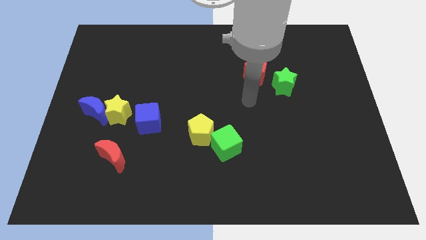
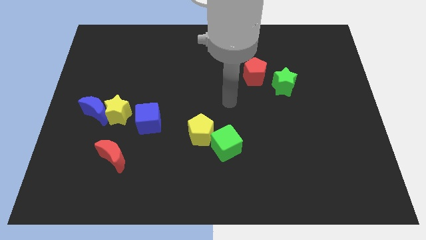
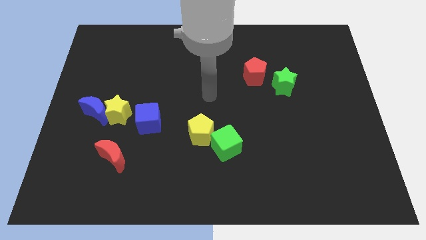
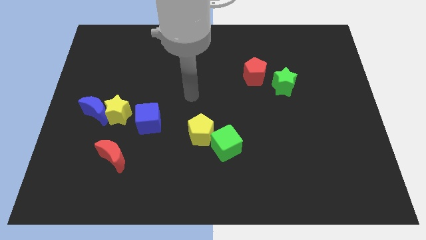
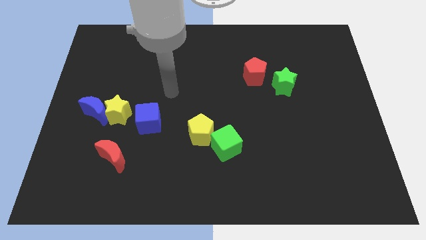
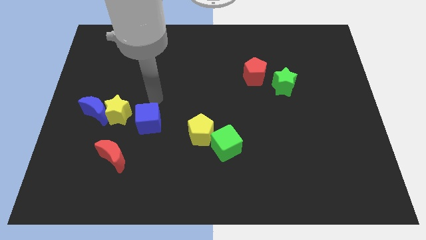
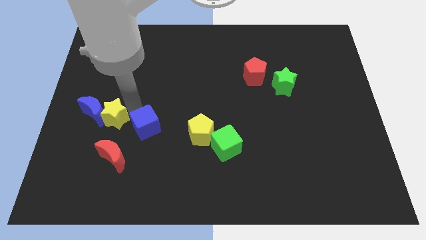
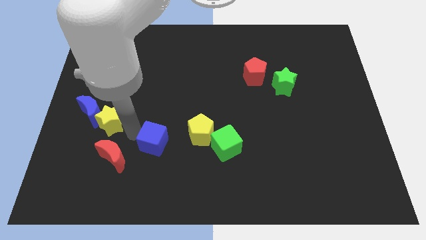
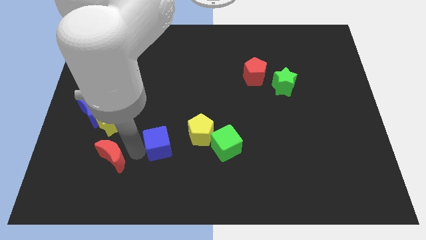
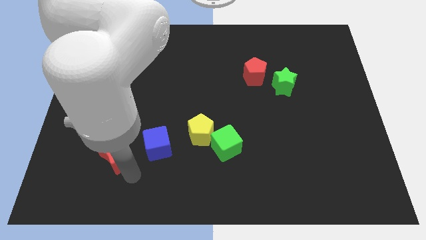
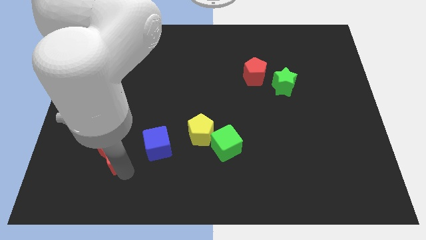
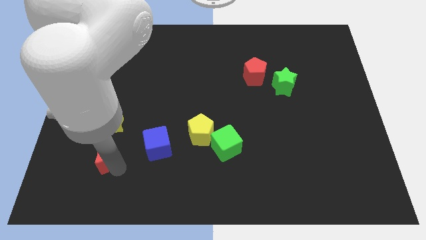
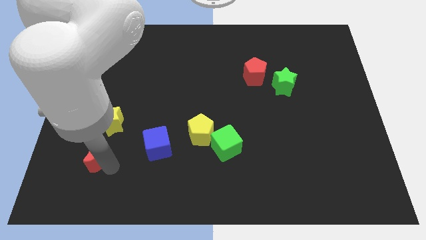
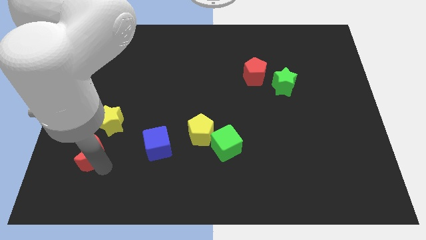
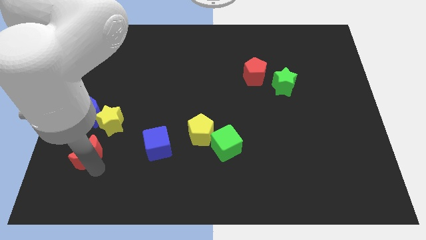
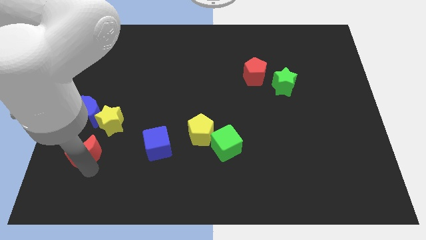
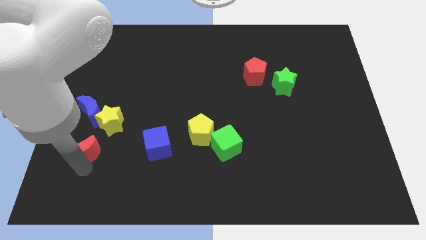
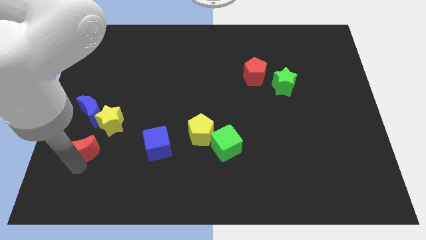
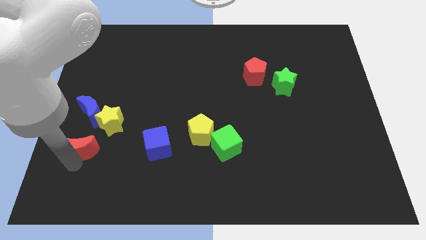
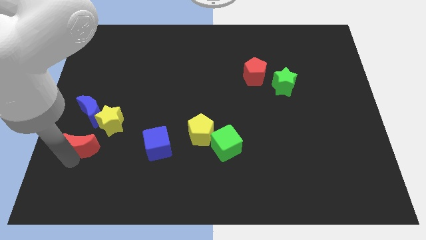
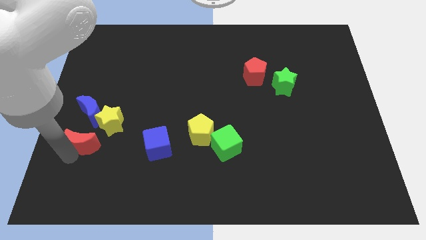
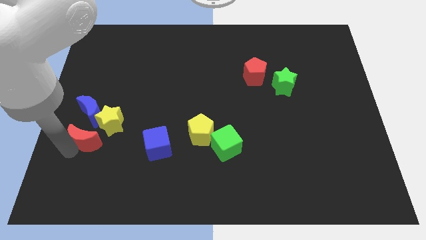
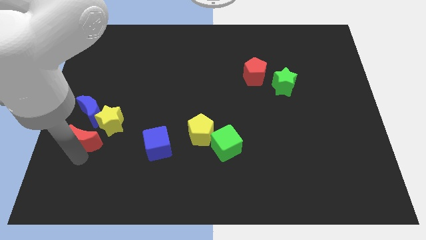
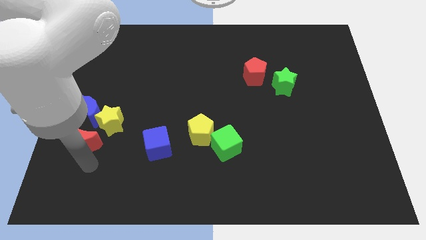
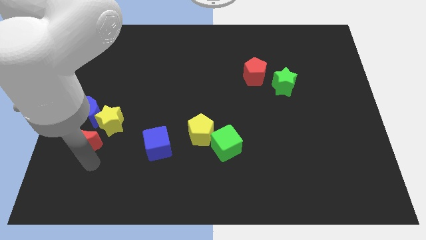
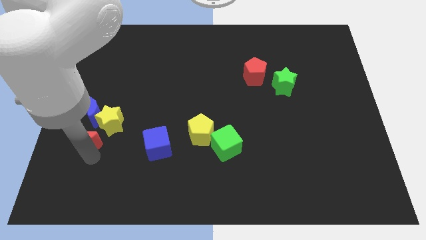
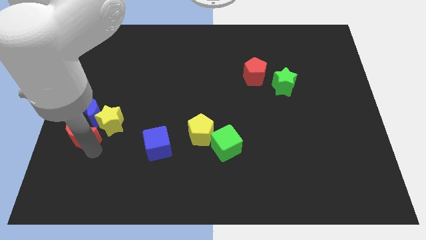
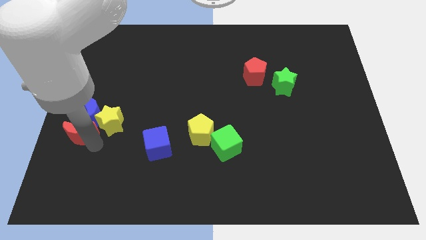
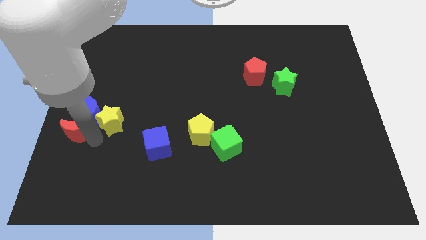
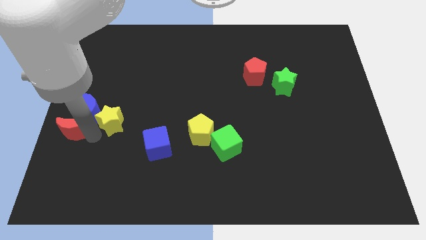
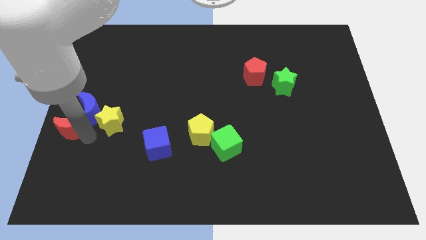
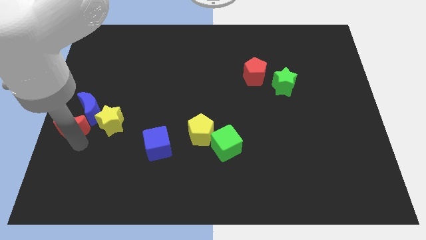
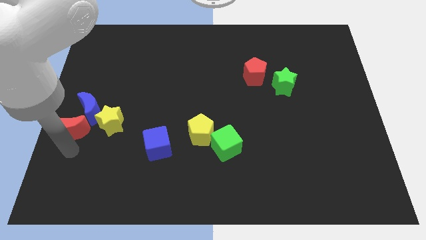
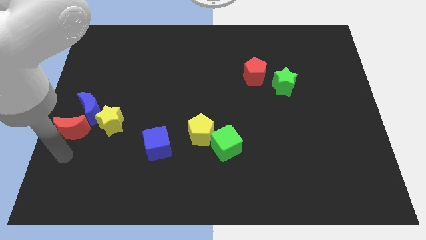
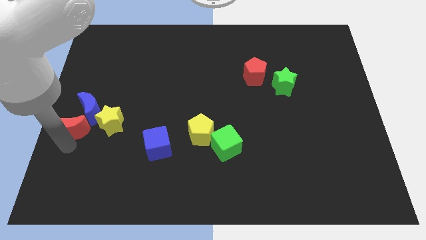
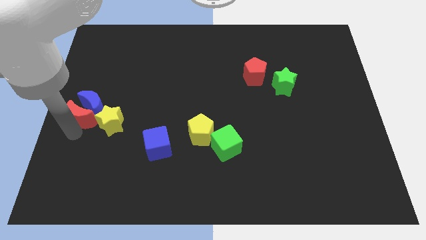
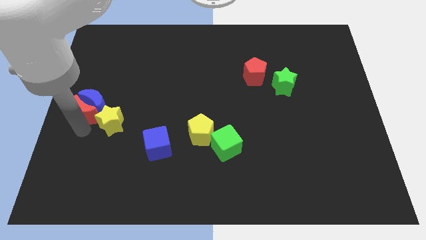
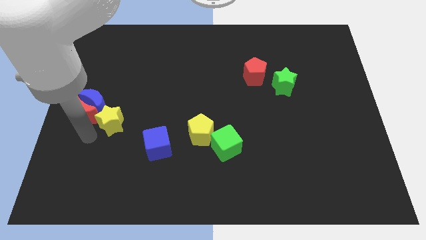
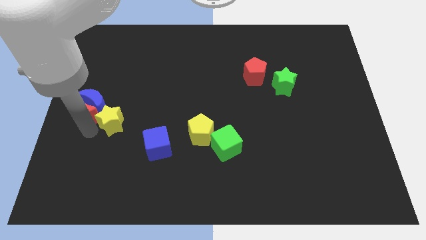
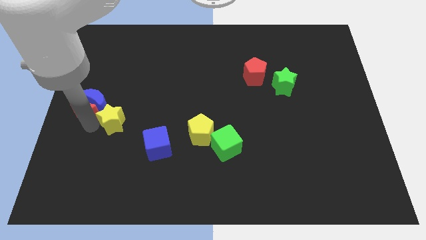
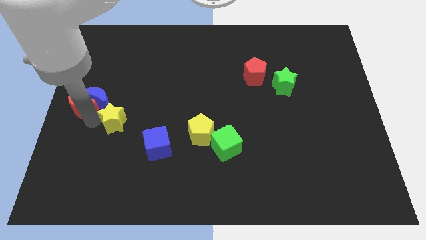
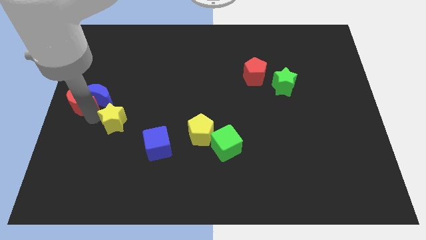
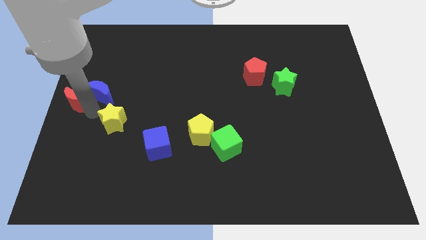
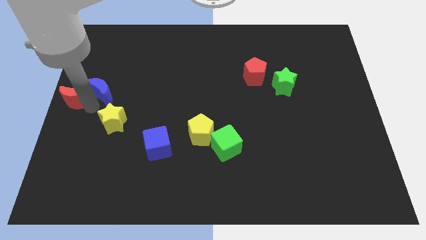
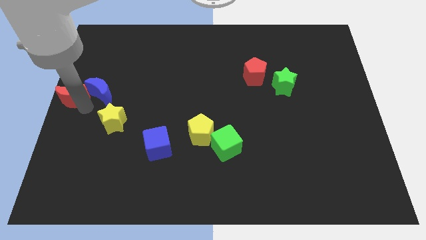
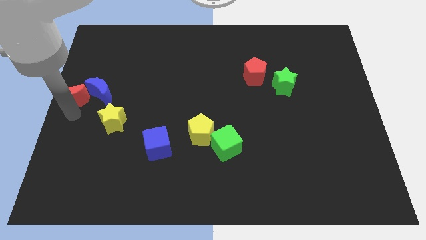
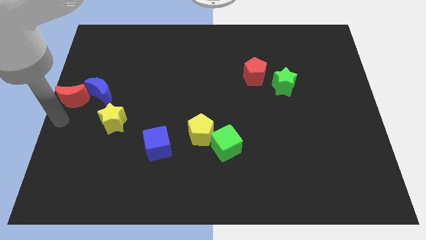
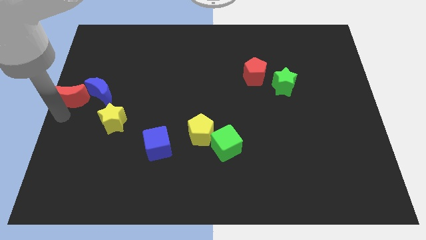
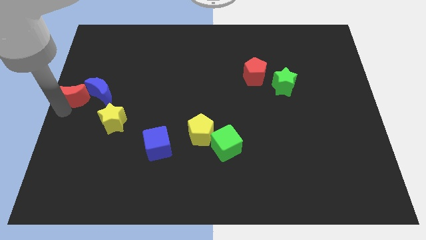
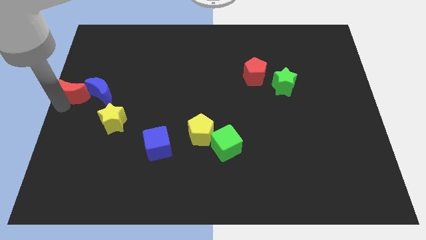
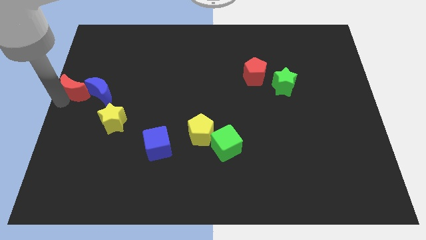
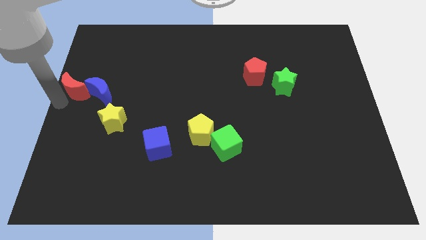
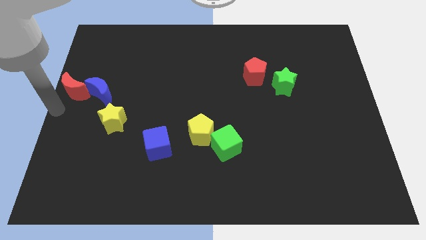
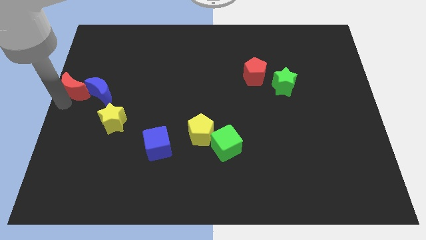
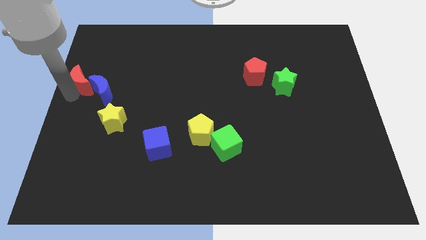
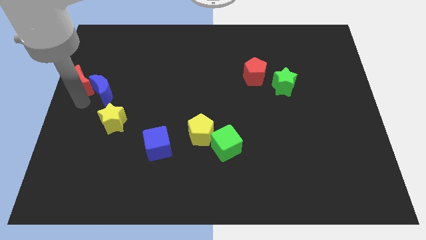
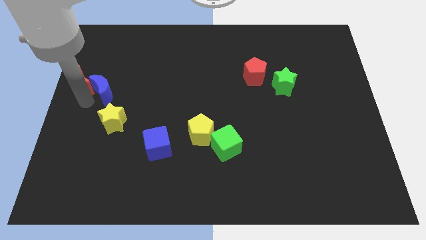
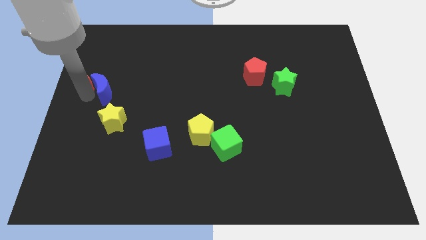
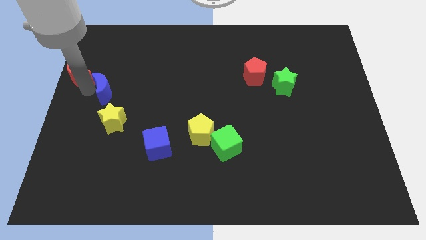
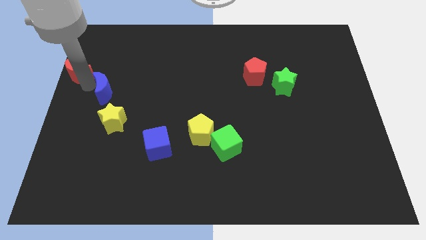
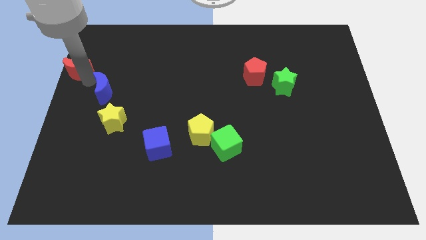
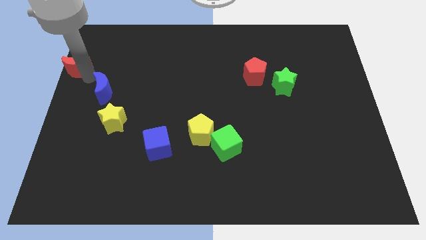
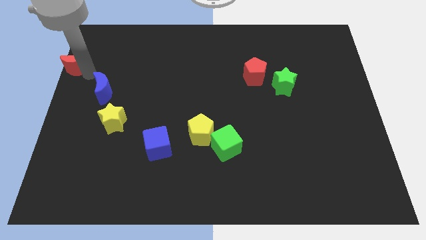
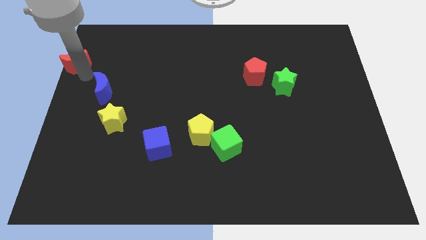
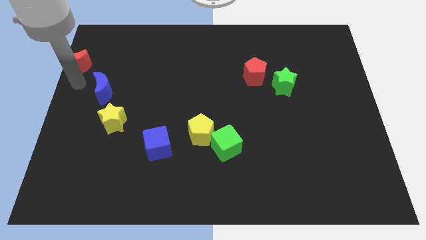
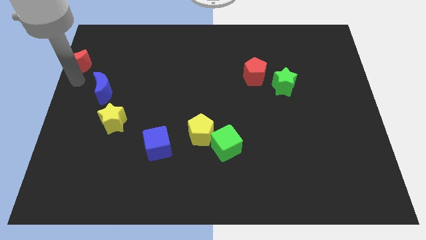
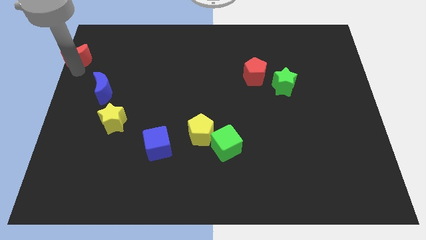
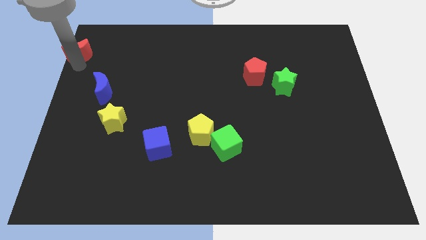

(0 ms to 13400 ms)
put the red moon to the top left
